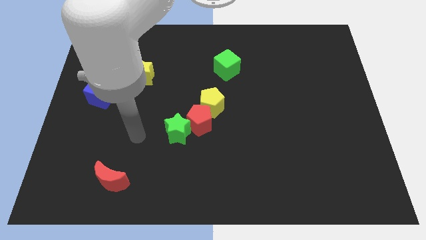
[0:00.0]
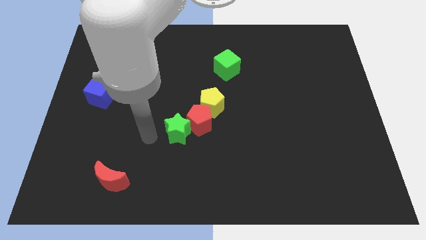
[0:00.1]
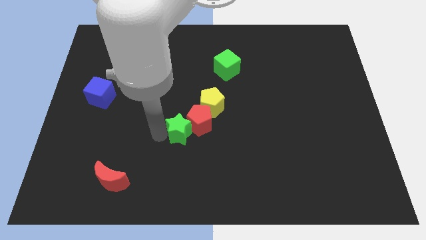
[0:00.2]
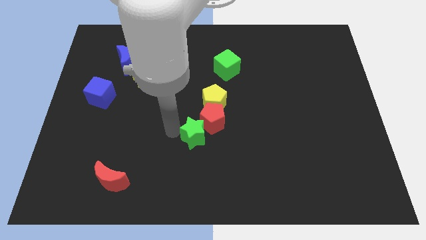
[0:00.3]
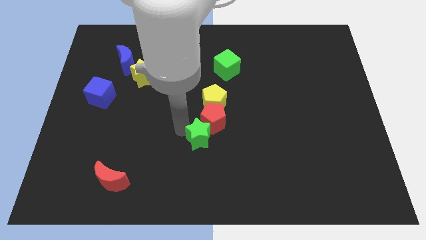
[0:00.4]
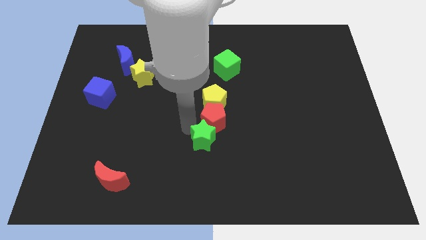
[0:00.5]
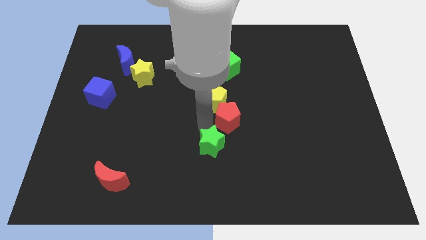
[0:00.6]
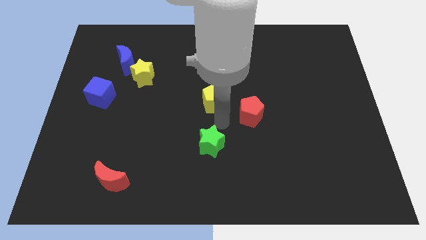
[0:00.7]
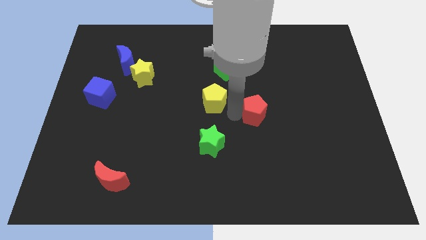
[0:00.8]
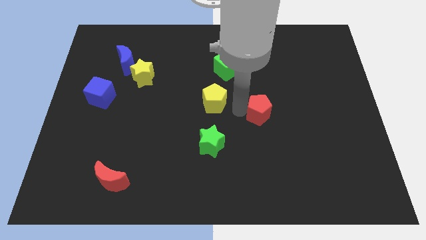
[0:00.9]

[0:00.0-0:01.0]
move the yellow pentagon away from the red pentagon

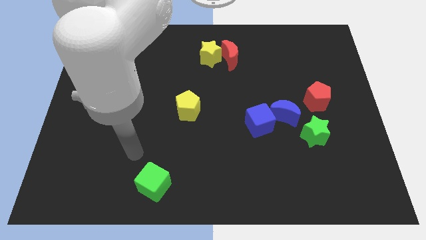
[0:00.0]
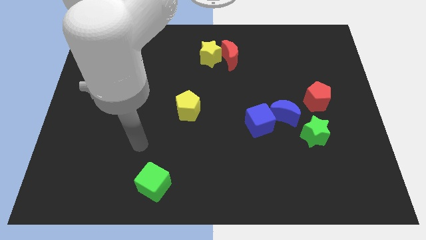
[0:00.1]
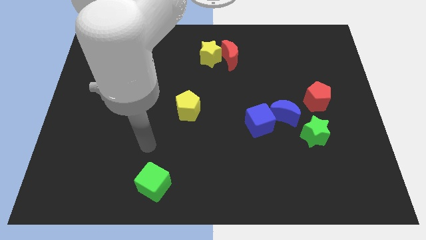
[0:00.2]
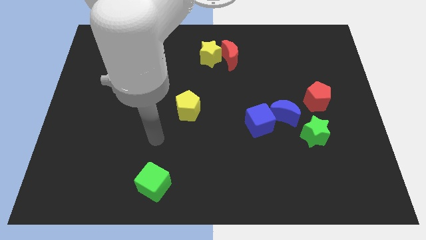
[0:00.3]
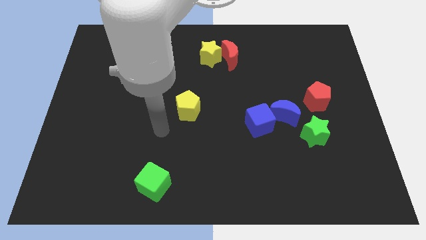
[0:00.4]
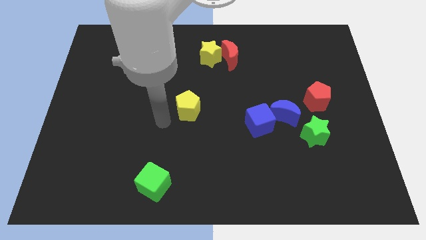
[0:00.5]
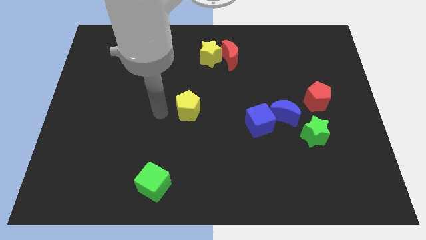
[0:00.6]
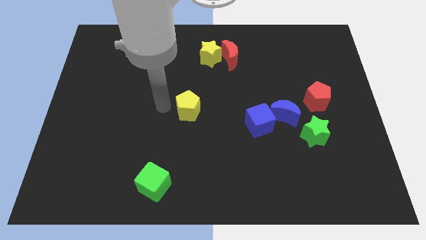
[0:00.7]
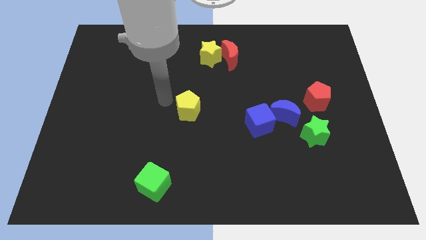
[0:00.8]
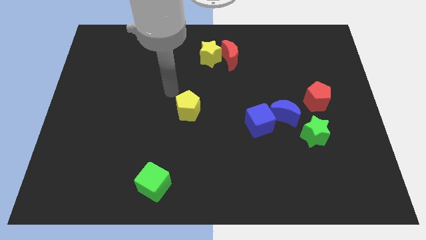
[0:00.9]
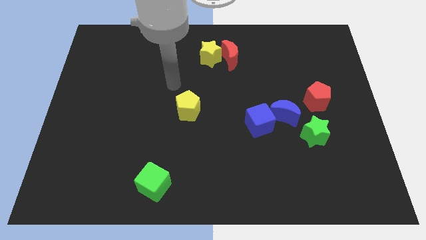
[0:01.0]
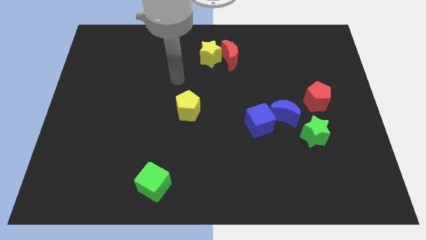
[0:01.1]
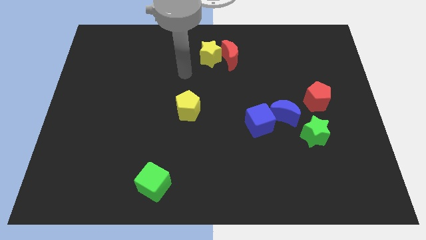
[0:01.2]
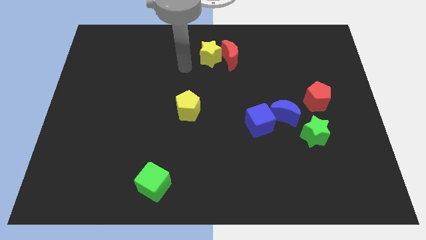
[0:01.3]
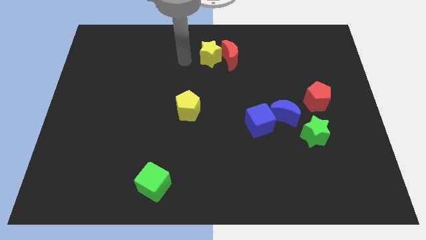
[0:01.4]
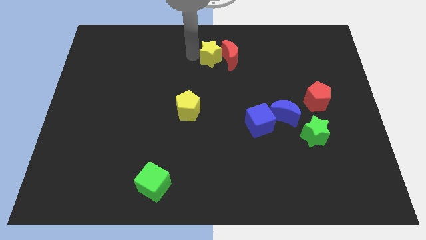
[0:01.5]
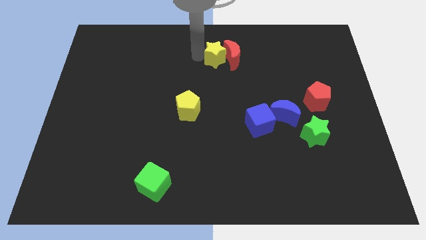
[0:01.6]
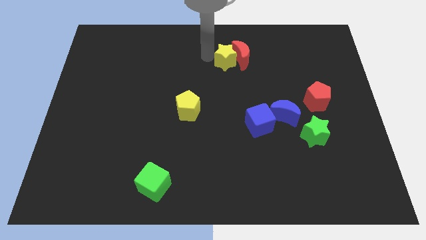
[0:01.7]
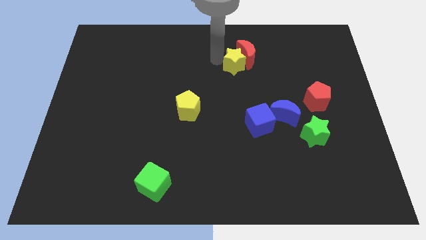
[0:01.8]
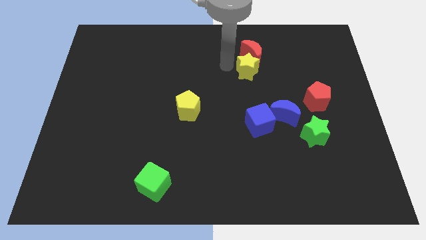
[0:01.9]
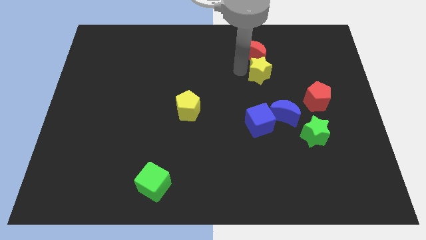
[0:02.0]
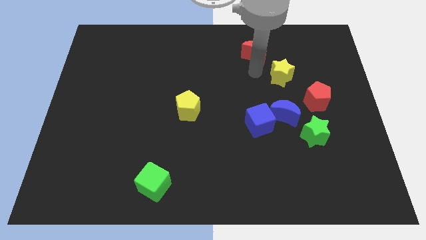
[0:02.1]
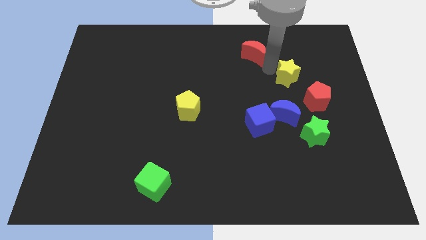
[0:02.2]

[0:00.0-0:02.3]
separate the red moon from the yellow star

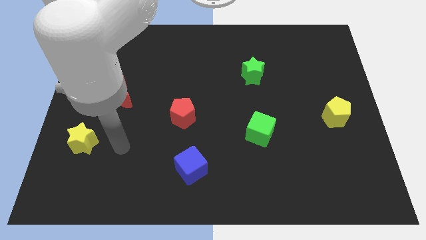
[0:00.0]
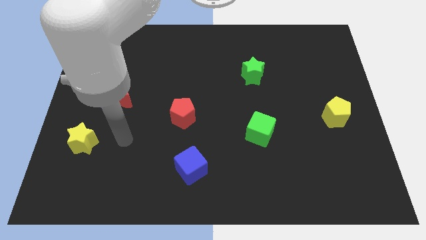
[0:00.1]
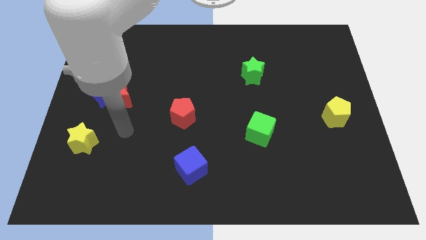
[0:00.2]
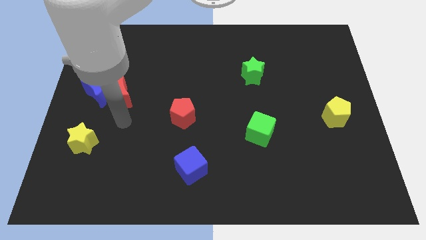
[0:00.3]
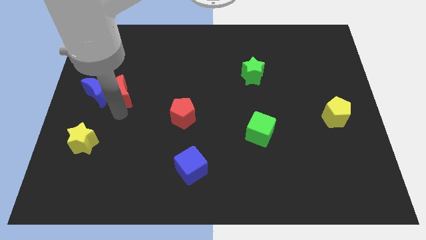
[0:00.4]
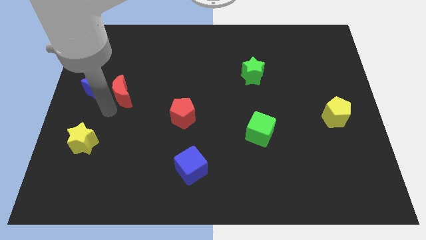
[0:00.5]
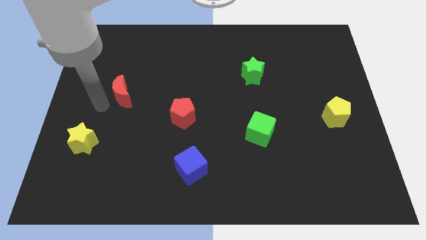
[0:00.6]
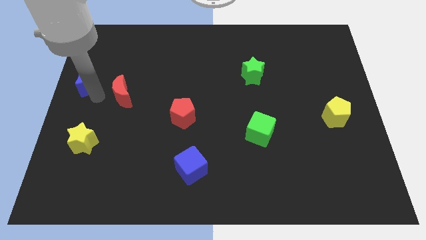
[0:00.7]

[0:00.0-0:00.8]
separate the red moon from the blue moon

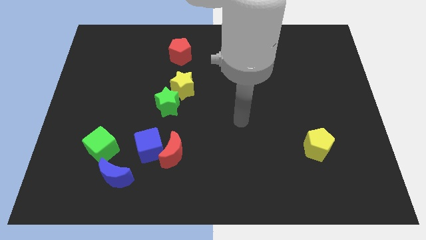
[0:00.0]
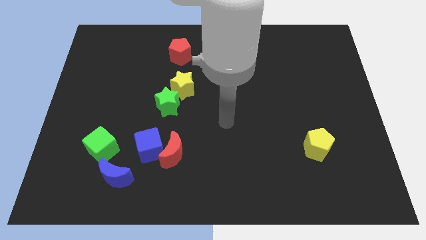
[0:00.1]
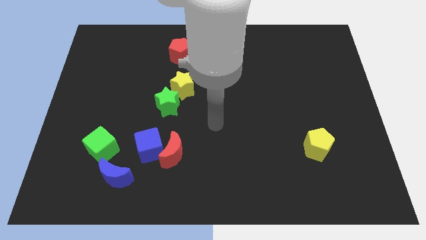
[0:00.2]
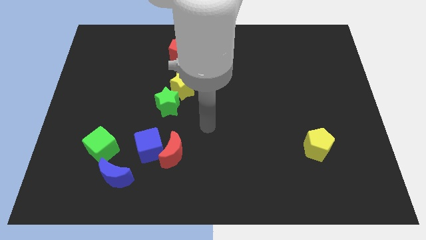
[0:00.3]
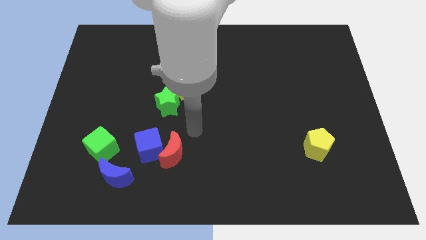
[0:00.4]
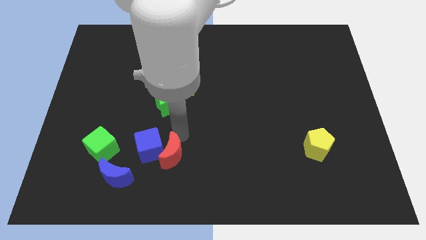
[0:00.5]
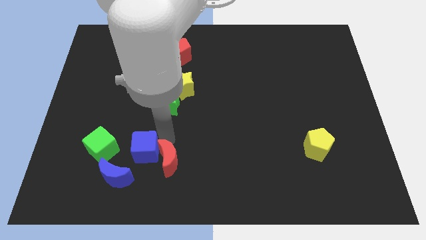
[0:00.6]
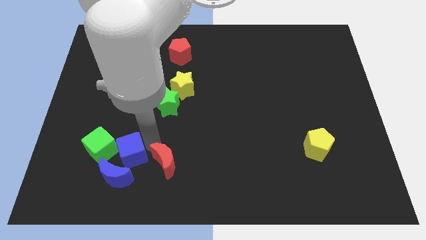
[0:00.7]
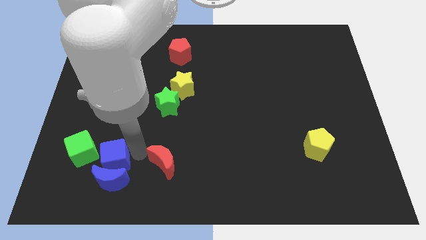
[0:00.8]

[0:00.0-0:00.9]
move the red moon away from the blue cube

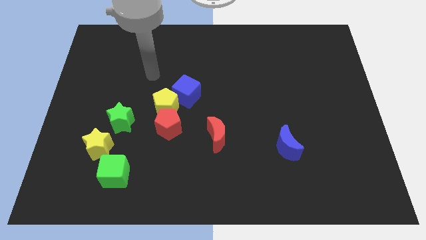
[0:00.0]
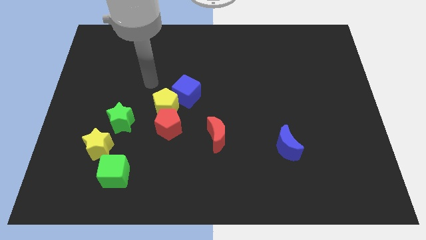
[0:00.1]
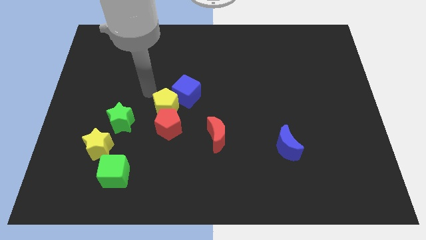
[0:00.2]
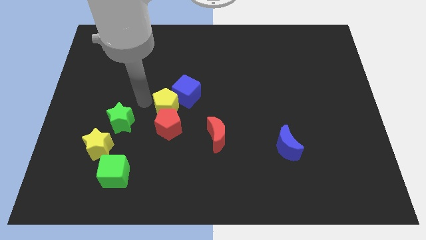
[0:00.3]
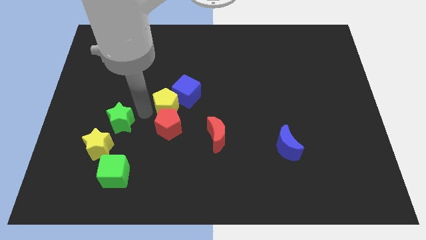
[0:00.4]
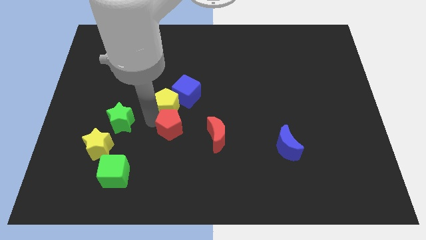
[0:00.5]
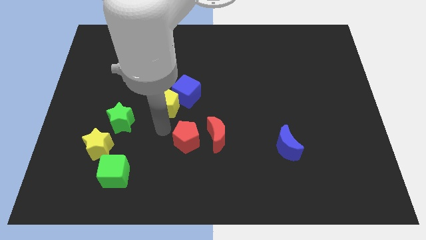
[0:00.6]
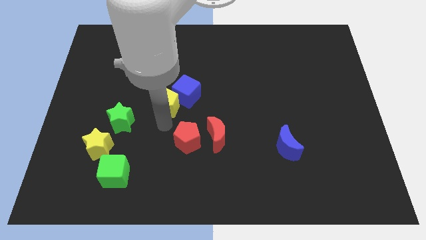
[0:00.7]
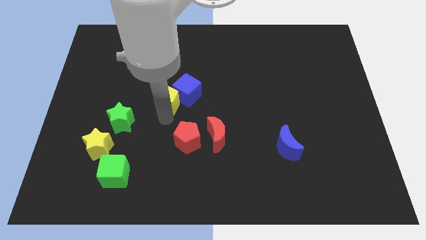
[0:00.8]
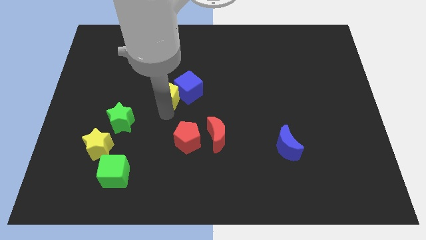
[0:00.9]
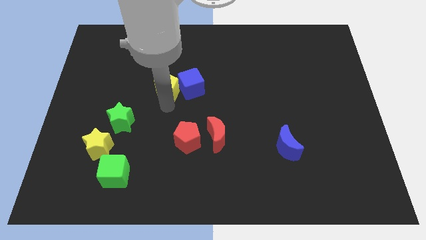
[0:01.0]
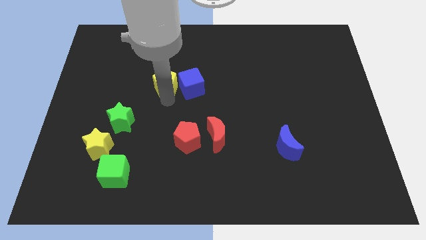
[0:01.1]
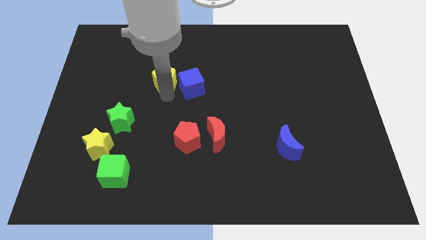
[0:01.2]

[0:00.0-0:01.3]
separate the yellow pentagon from the group

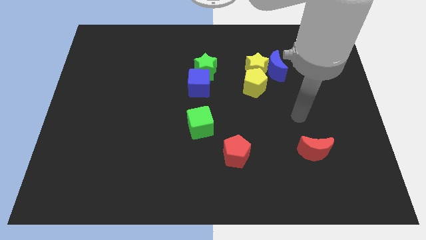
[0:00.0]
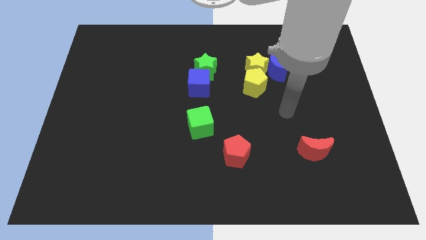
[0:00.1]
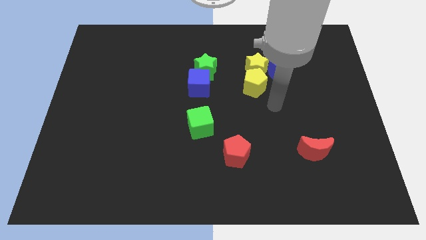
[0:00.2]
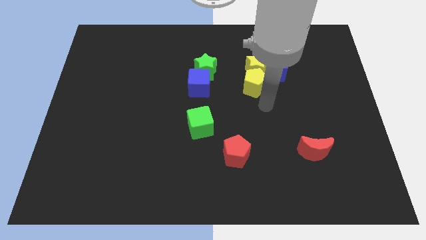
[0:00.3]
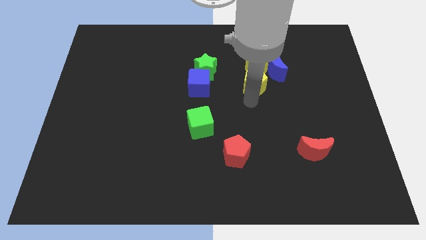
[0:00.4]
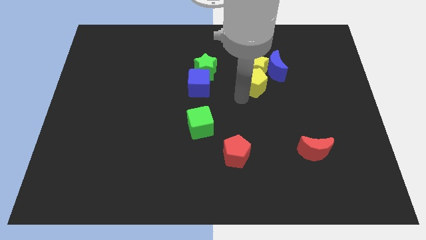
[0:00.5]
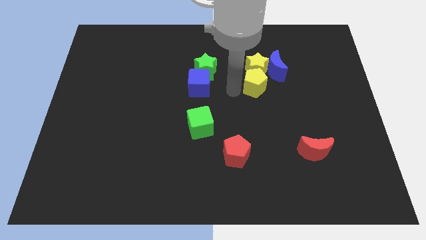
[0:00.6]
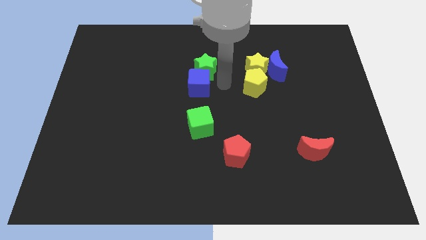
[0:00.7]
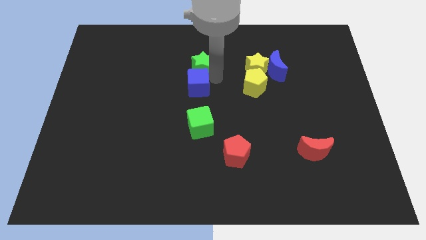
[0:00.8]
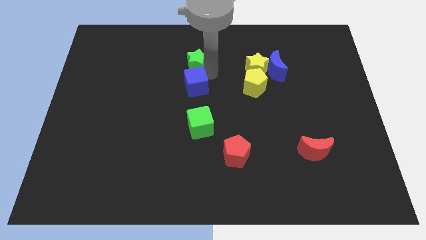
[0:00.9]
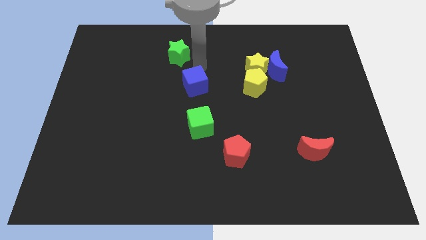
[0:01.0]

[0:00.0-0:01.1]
move the blue cube away from the green star

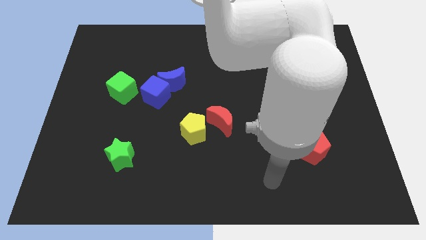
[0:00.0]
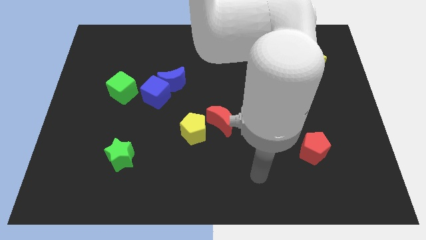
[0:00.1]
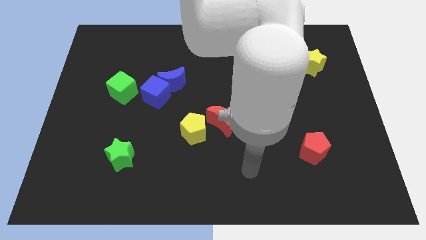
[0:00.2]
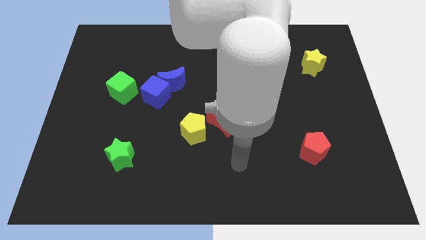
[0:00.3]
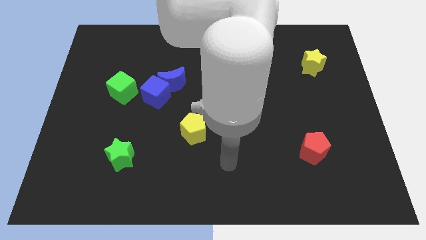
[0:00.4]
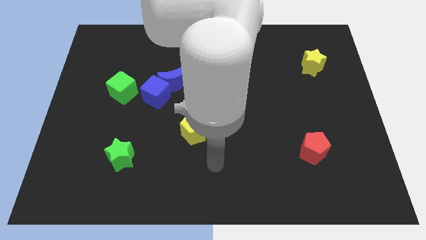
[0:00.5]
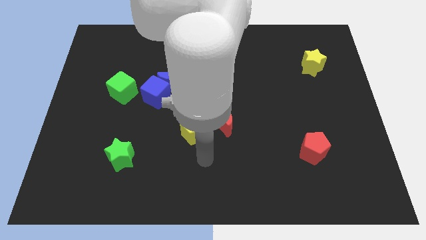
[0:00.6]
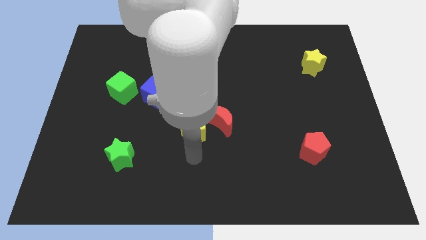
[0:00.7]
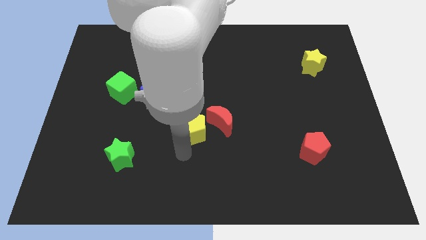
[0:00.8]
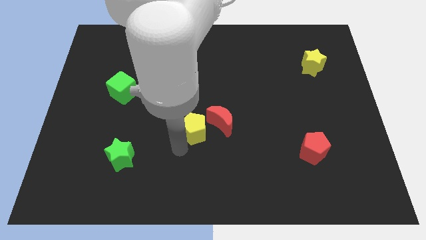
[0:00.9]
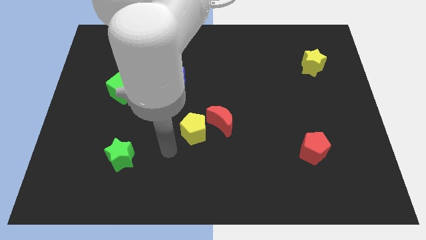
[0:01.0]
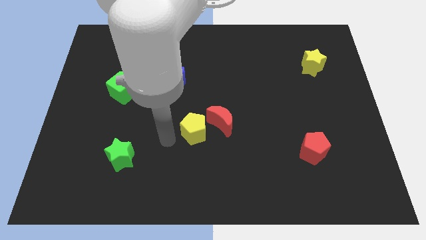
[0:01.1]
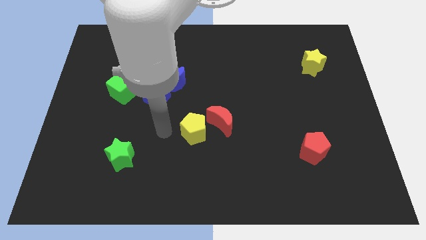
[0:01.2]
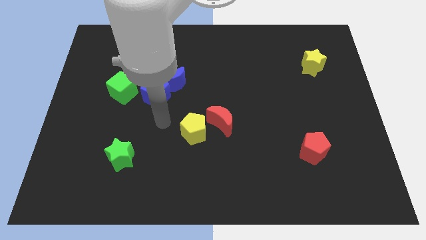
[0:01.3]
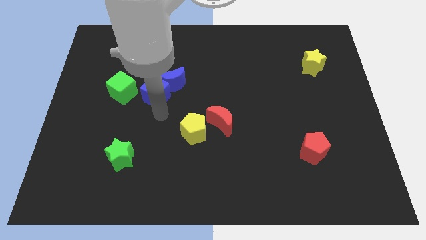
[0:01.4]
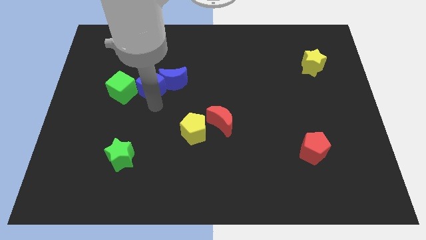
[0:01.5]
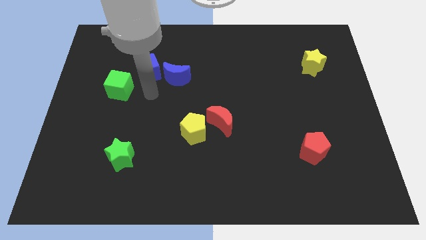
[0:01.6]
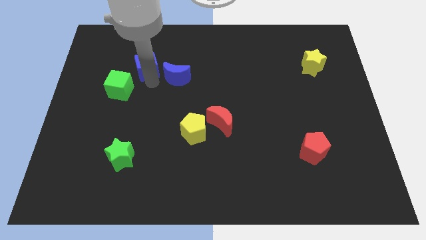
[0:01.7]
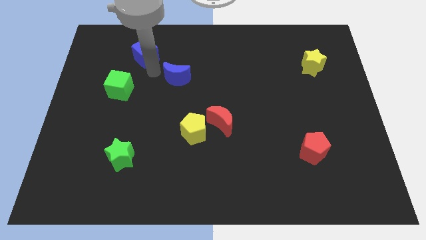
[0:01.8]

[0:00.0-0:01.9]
move the blue moon away from the blue cube

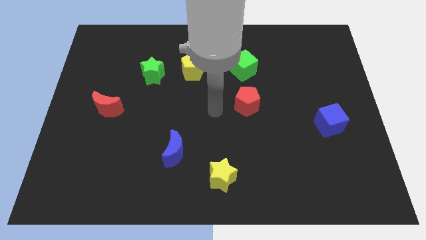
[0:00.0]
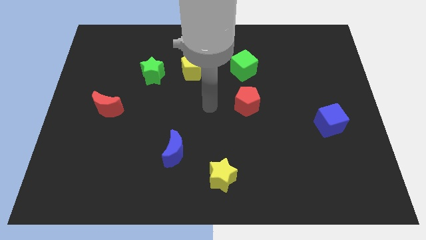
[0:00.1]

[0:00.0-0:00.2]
move the green star away from the yellow pentagon
